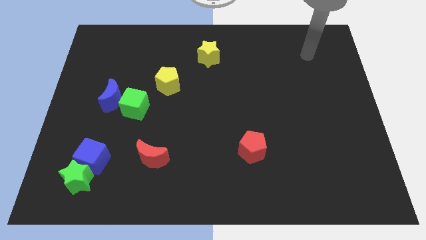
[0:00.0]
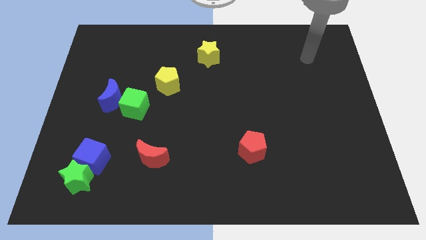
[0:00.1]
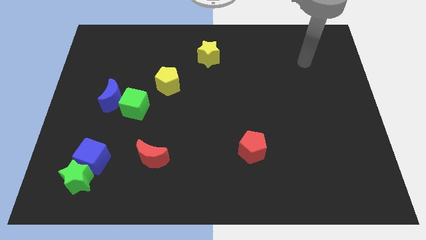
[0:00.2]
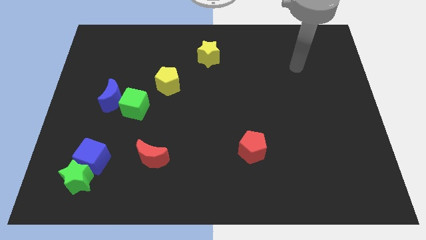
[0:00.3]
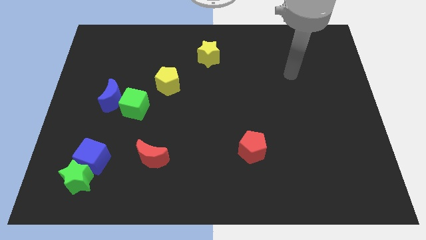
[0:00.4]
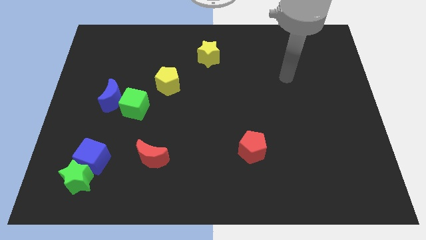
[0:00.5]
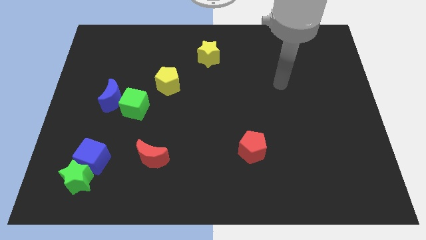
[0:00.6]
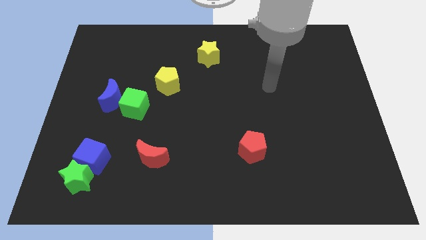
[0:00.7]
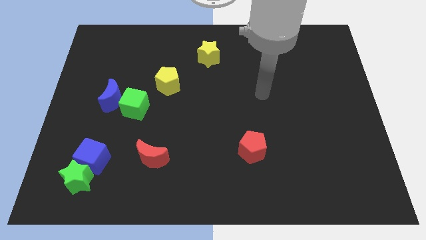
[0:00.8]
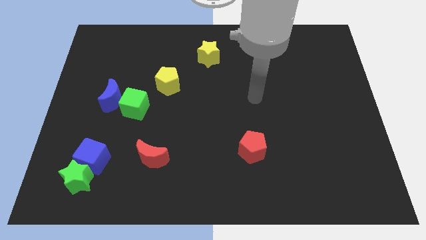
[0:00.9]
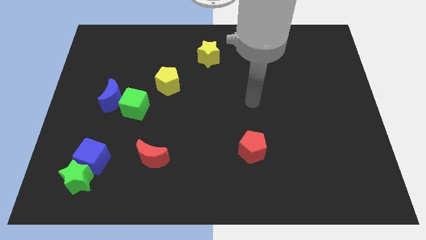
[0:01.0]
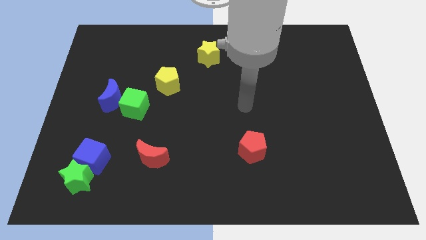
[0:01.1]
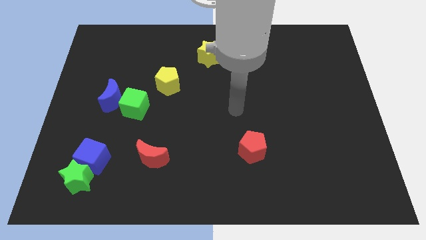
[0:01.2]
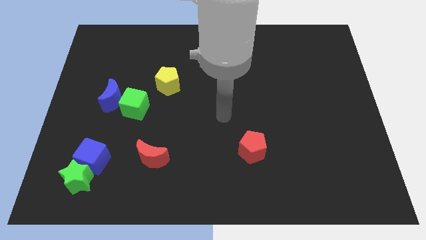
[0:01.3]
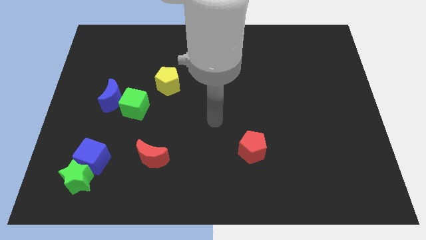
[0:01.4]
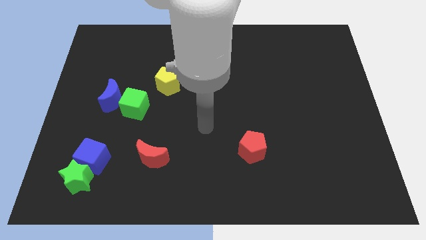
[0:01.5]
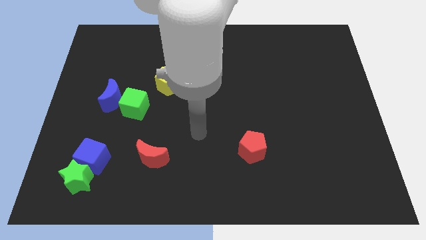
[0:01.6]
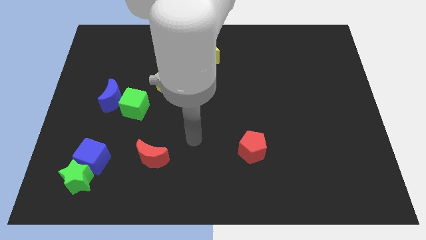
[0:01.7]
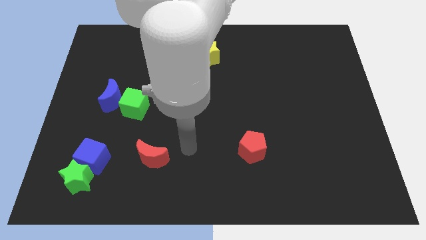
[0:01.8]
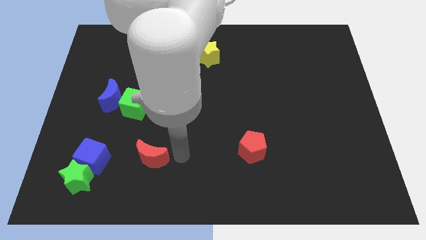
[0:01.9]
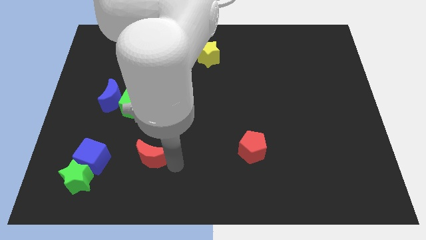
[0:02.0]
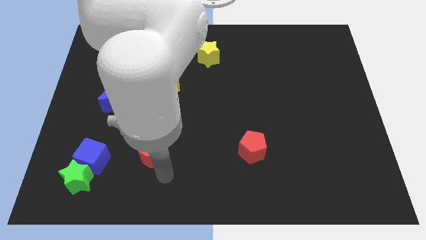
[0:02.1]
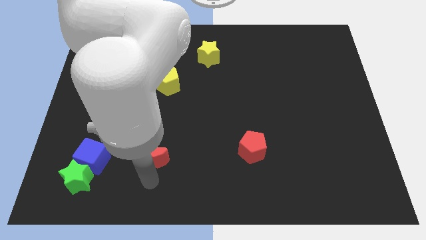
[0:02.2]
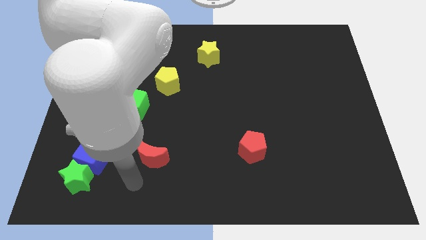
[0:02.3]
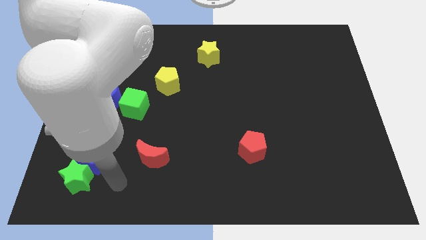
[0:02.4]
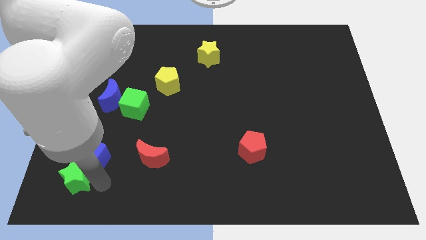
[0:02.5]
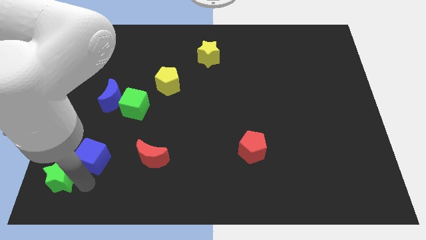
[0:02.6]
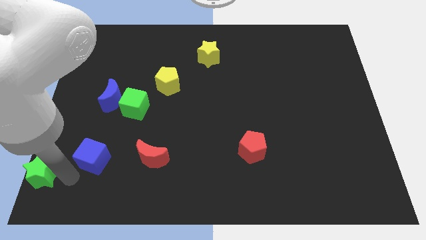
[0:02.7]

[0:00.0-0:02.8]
separate the blue cube from the green star

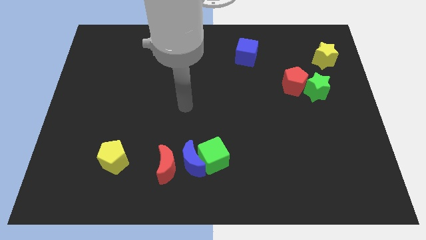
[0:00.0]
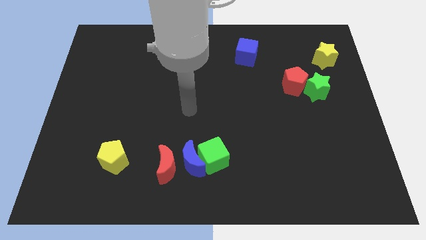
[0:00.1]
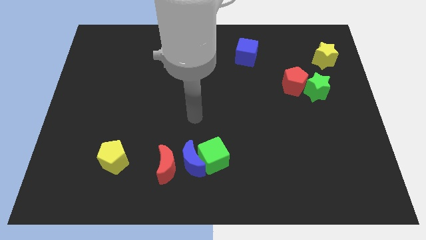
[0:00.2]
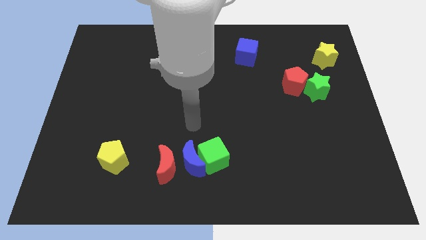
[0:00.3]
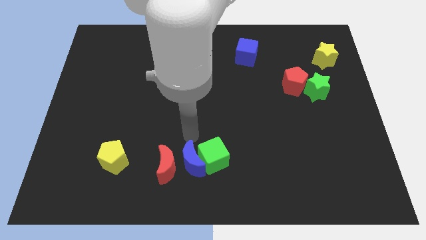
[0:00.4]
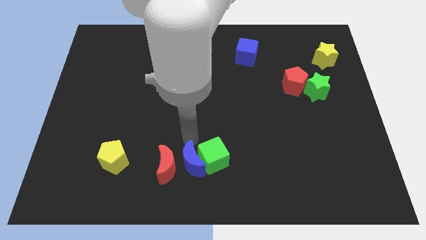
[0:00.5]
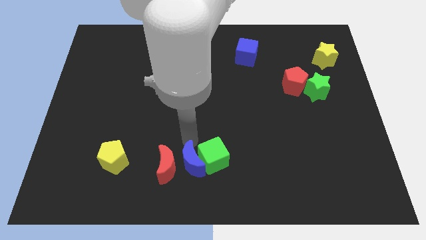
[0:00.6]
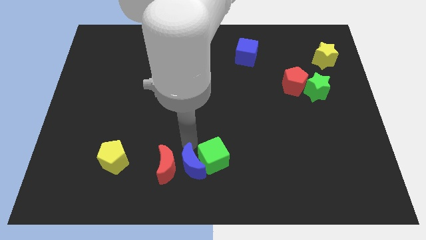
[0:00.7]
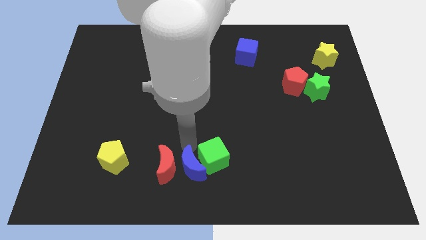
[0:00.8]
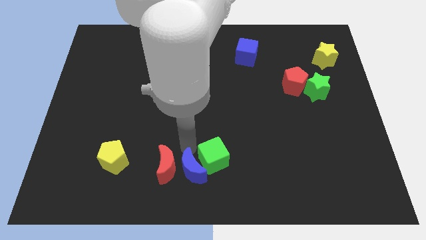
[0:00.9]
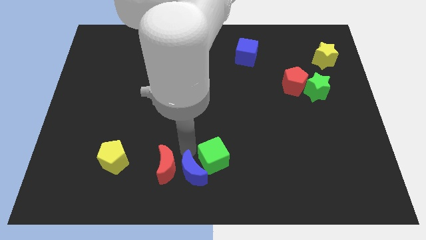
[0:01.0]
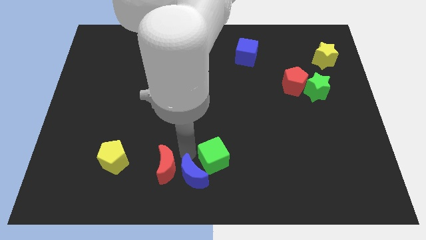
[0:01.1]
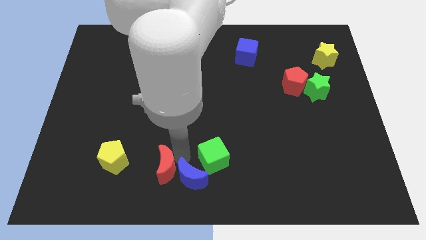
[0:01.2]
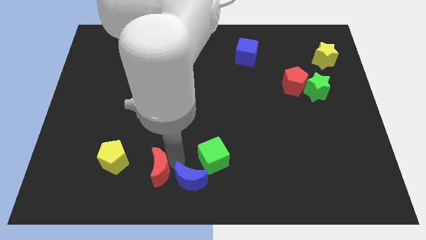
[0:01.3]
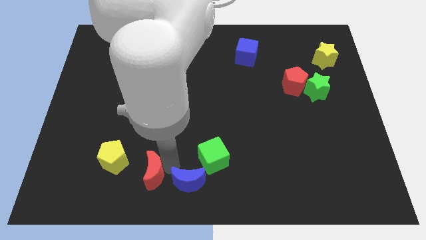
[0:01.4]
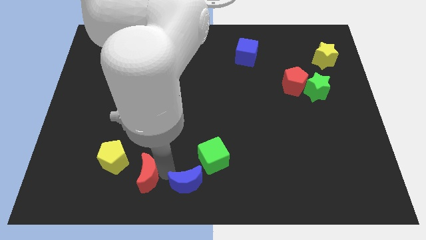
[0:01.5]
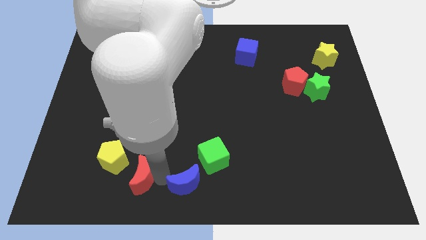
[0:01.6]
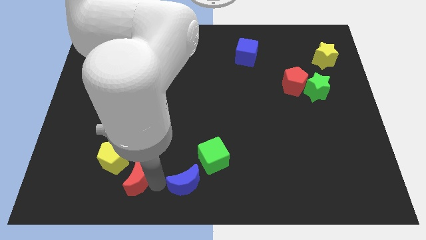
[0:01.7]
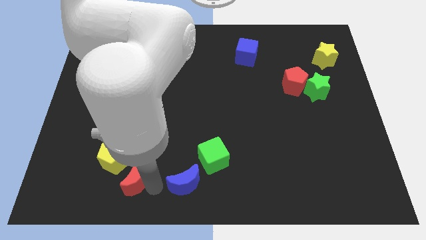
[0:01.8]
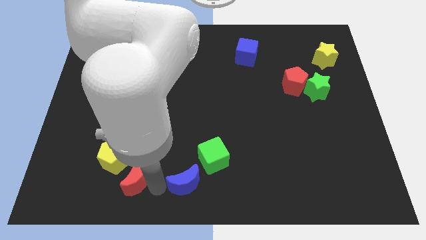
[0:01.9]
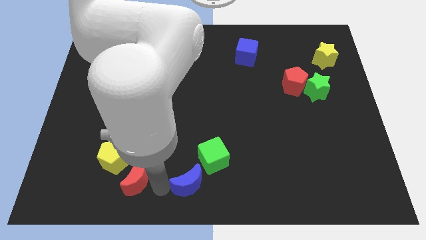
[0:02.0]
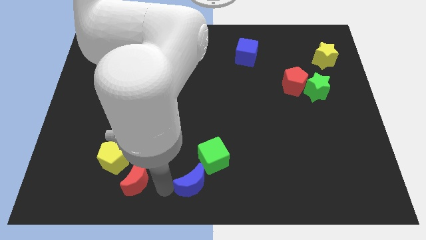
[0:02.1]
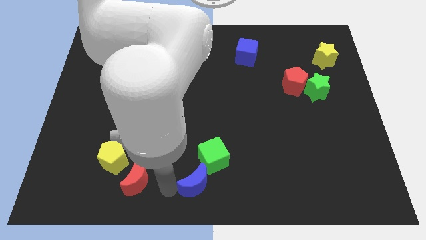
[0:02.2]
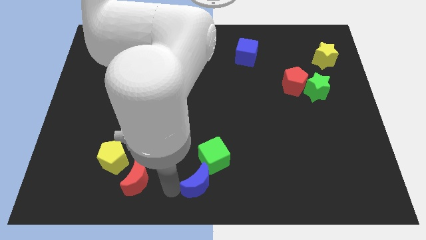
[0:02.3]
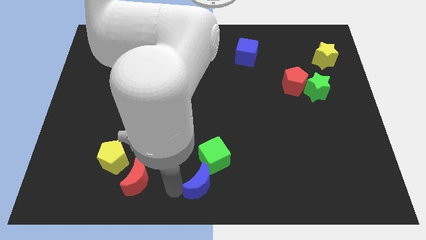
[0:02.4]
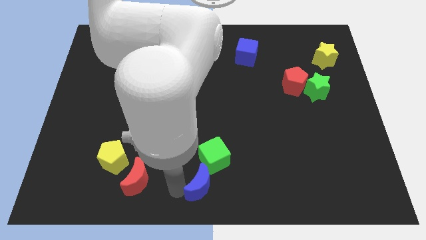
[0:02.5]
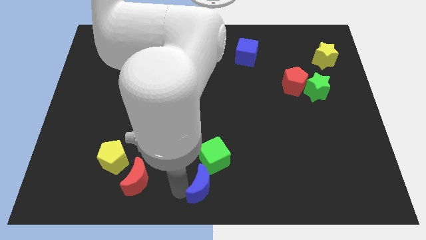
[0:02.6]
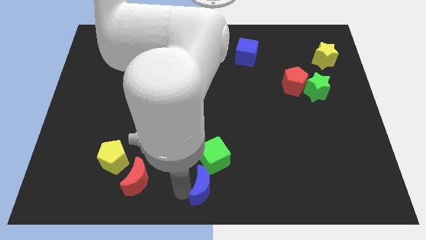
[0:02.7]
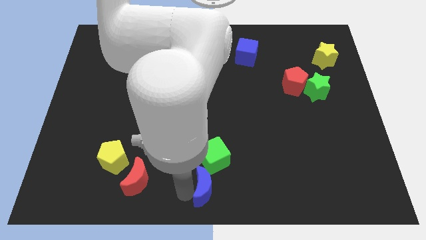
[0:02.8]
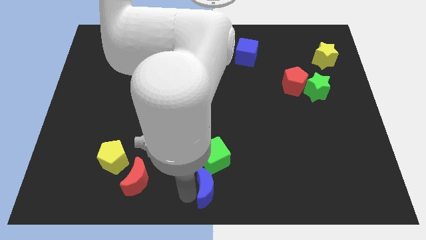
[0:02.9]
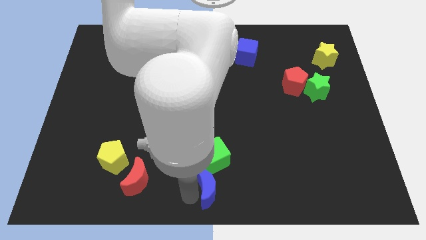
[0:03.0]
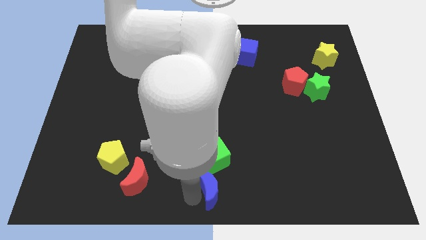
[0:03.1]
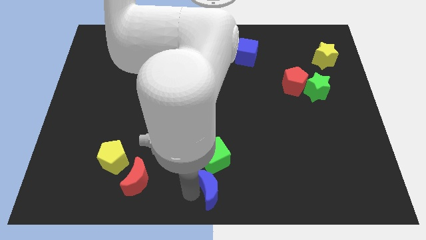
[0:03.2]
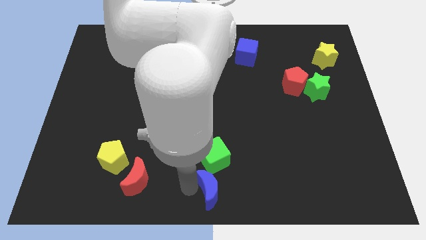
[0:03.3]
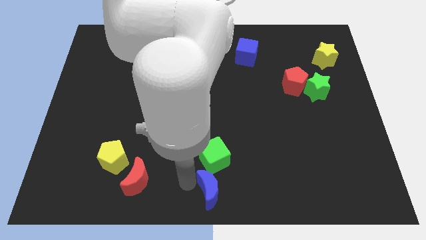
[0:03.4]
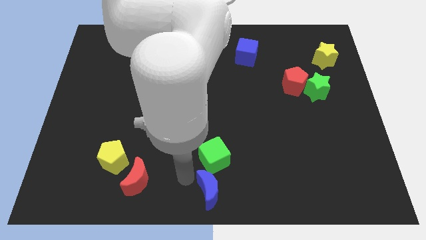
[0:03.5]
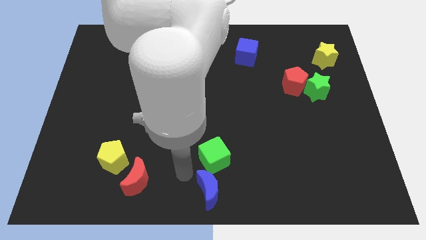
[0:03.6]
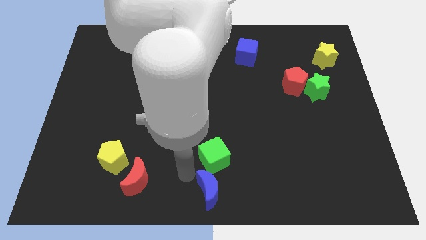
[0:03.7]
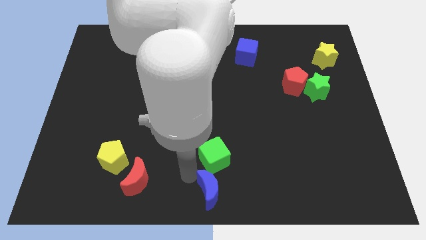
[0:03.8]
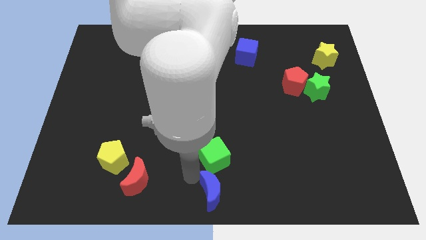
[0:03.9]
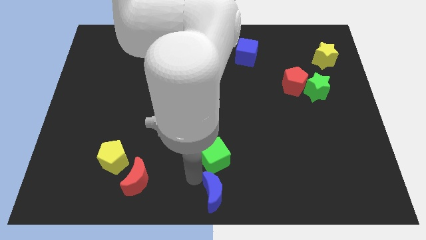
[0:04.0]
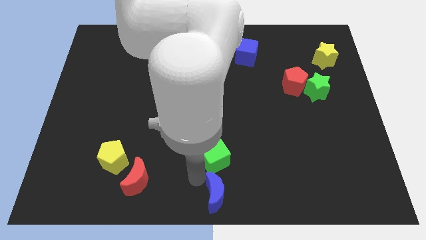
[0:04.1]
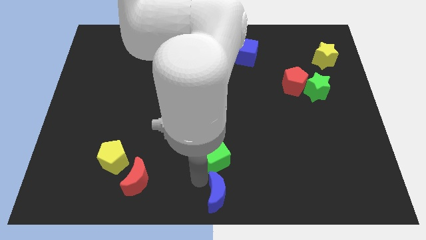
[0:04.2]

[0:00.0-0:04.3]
pull the blue moon apart from the green cube and red moon

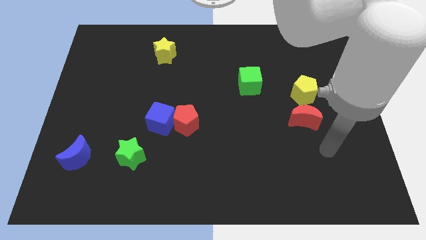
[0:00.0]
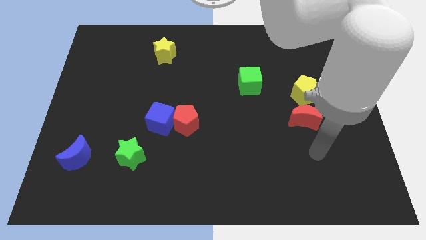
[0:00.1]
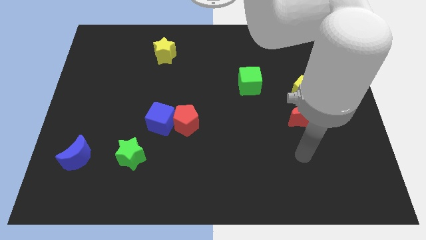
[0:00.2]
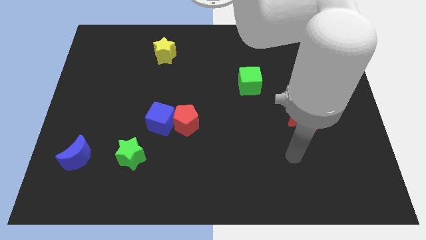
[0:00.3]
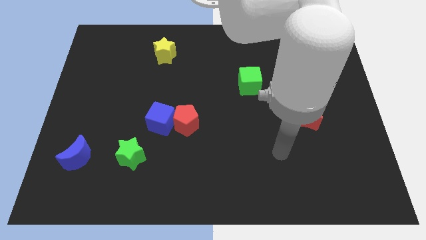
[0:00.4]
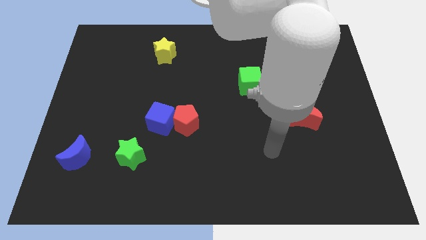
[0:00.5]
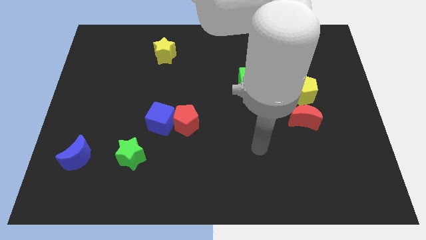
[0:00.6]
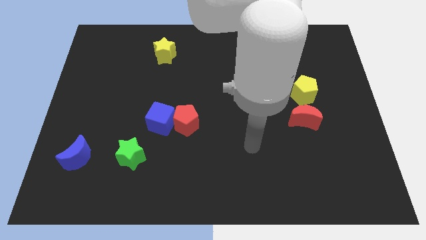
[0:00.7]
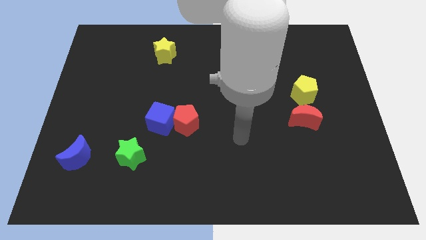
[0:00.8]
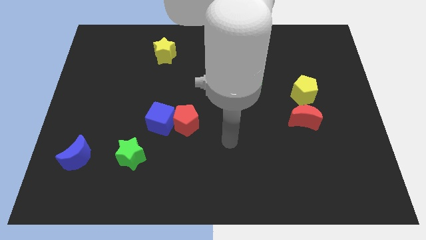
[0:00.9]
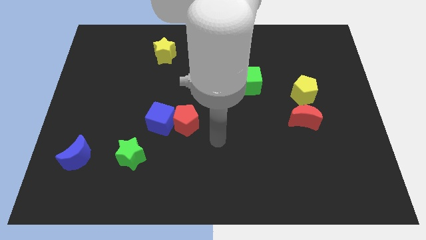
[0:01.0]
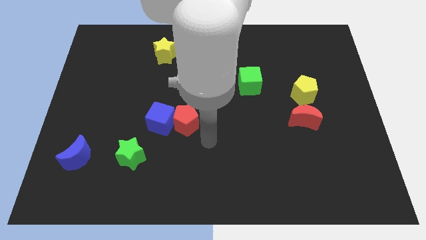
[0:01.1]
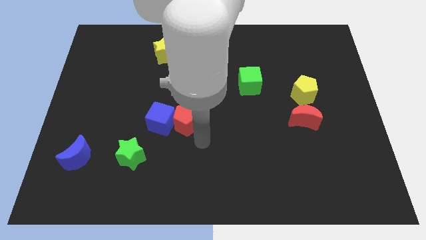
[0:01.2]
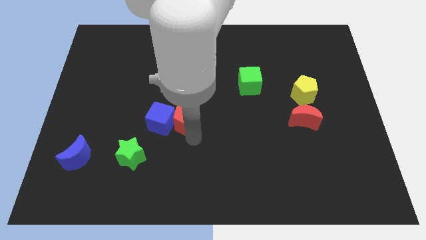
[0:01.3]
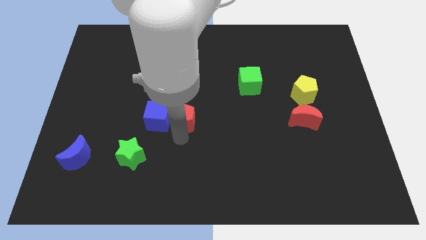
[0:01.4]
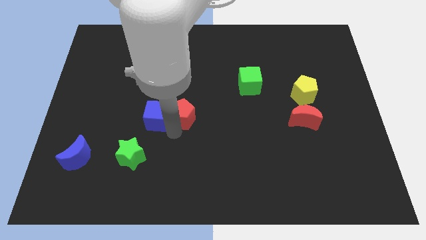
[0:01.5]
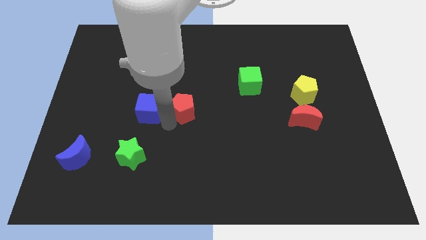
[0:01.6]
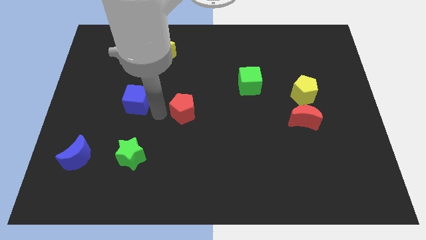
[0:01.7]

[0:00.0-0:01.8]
separate the red pentagon from the blue cube

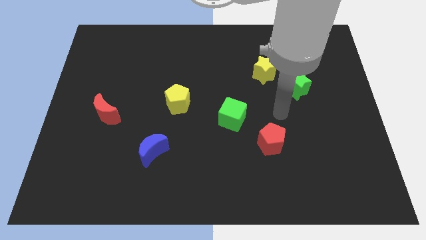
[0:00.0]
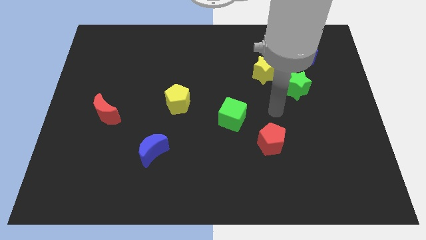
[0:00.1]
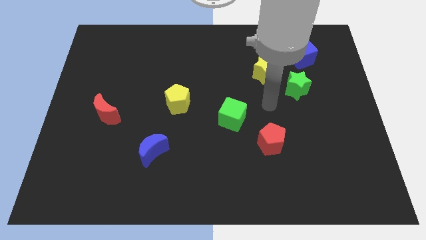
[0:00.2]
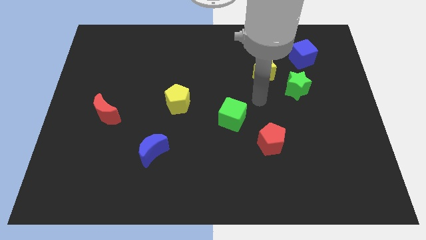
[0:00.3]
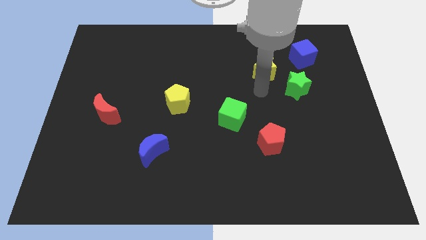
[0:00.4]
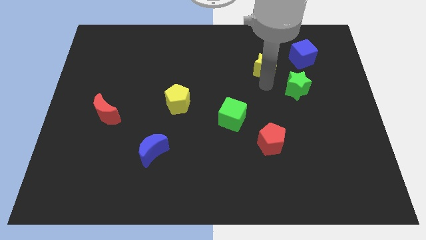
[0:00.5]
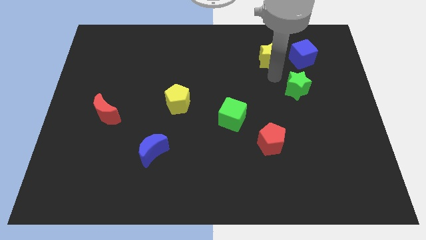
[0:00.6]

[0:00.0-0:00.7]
pull the green star apart from the yellow star
